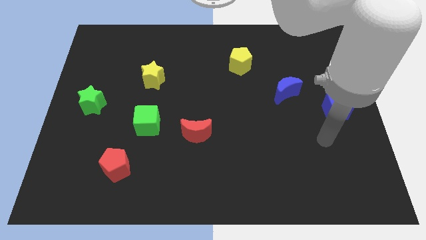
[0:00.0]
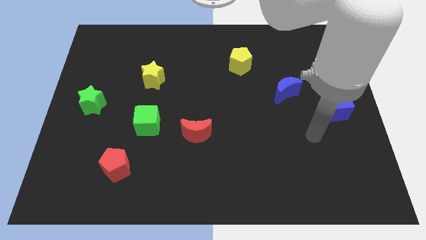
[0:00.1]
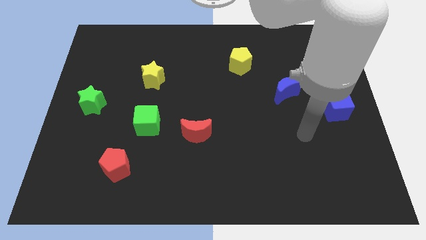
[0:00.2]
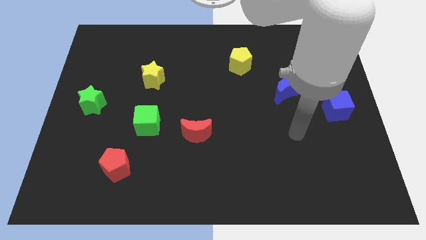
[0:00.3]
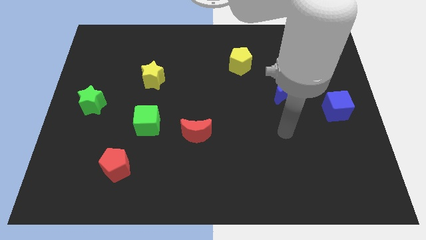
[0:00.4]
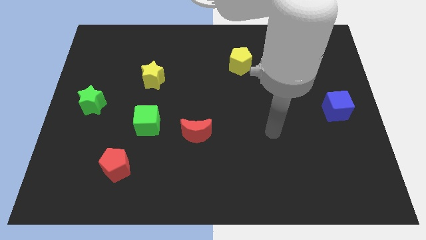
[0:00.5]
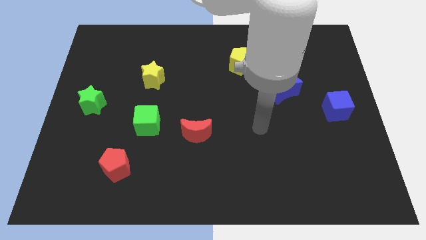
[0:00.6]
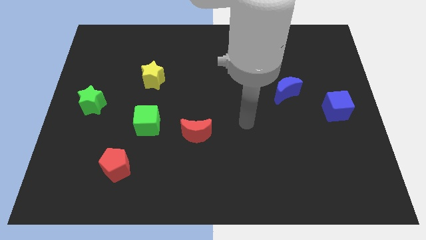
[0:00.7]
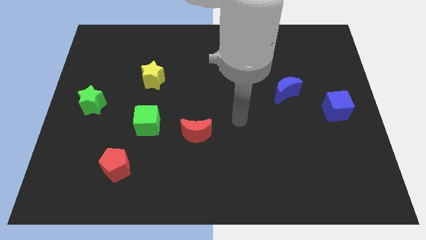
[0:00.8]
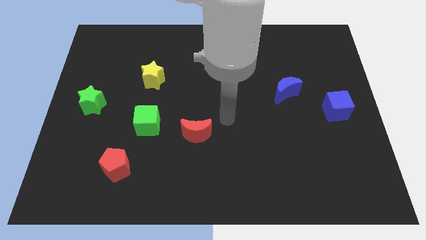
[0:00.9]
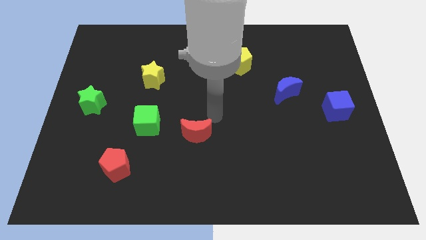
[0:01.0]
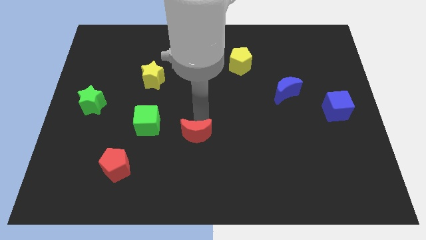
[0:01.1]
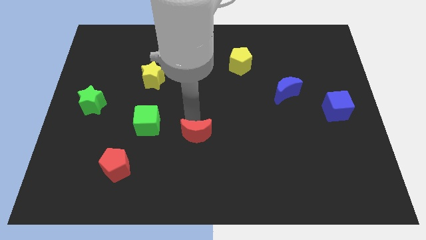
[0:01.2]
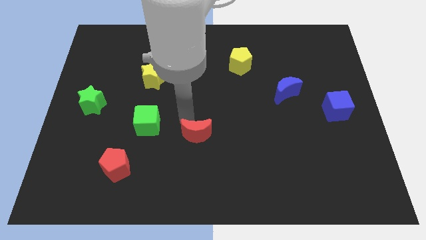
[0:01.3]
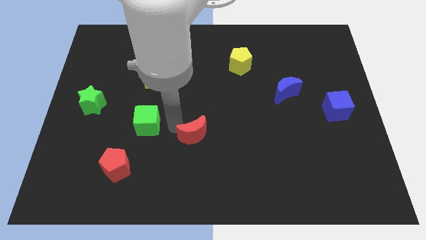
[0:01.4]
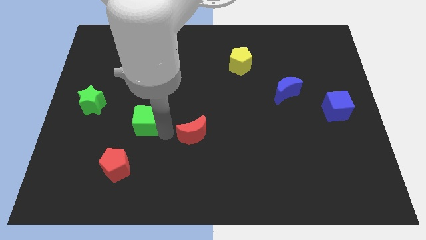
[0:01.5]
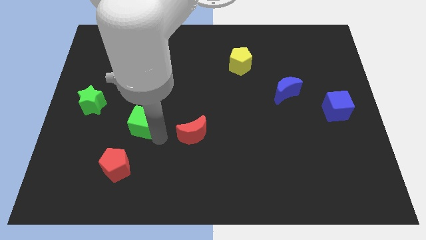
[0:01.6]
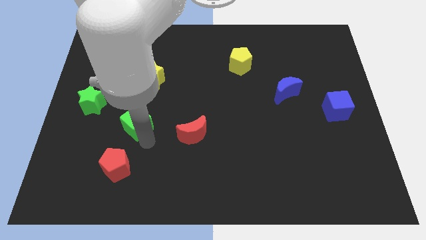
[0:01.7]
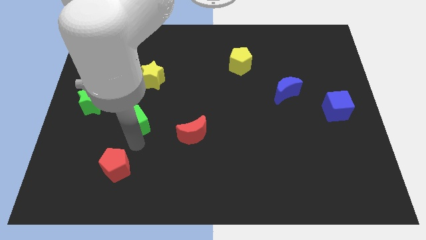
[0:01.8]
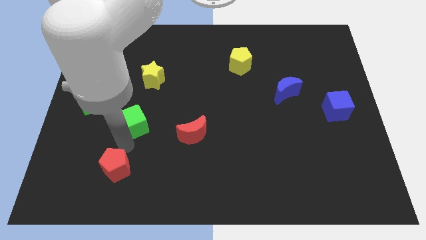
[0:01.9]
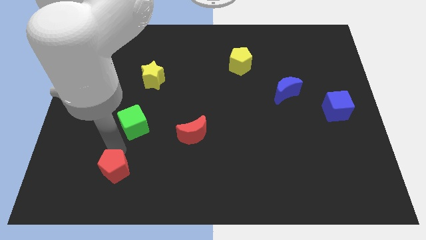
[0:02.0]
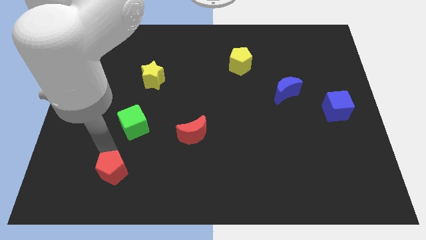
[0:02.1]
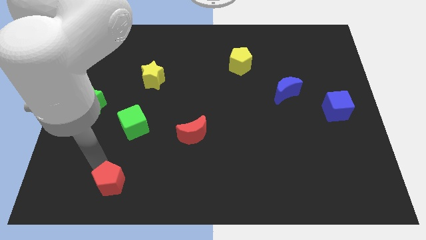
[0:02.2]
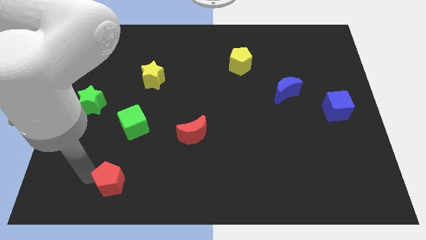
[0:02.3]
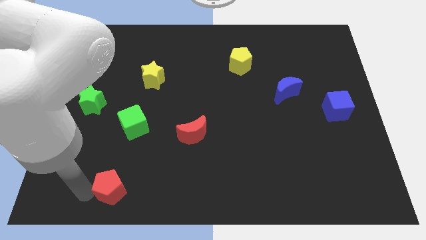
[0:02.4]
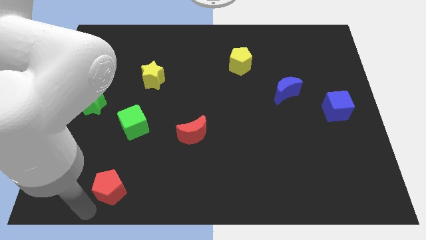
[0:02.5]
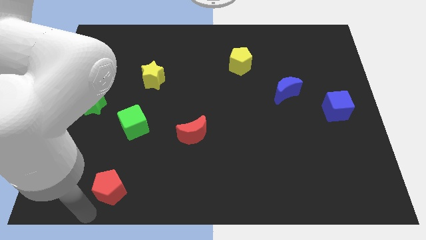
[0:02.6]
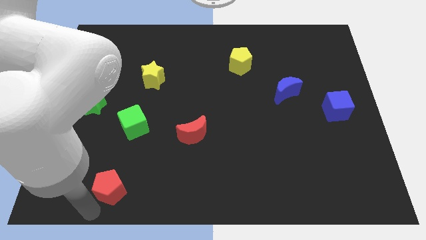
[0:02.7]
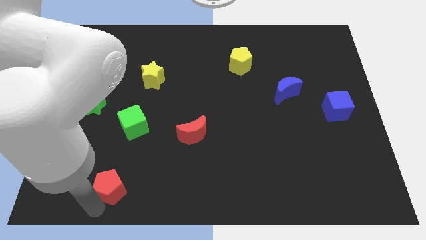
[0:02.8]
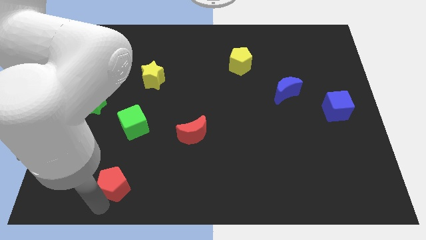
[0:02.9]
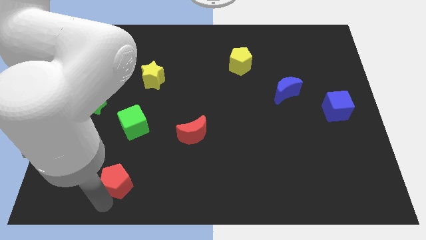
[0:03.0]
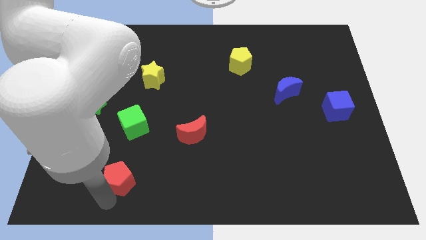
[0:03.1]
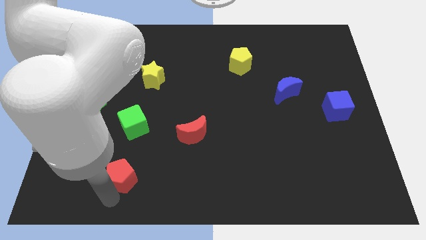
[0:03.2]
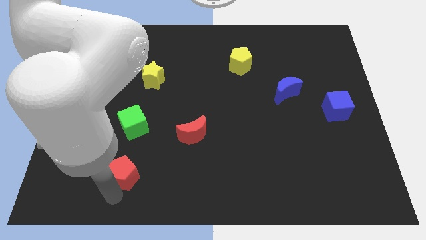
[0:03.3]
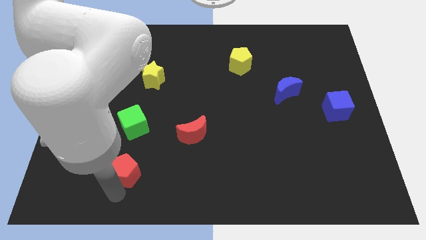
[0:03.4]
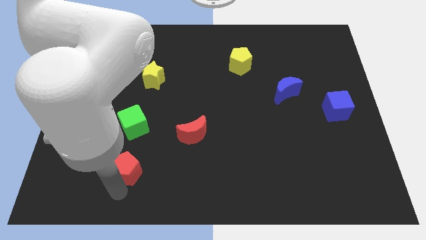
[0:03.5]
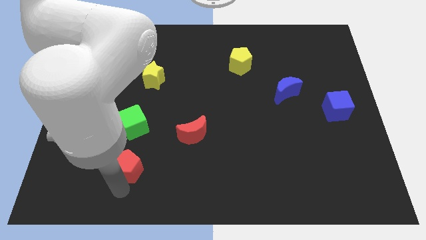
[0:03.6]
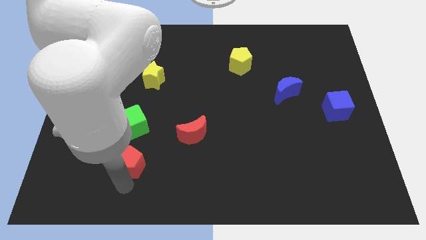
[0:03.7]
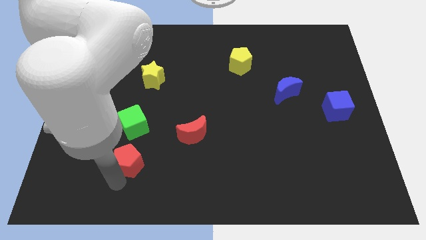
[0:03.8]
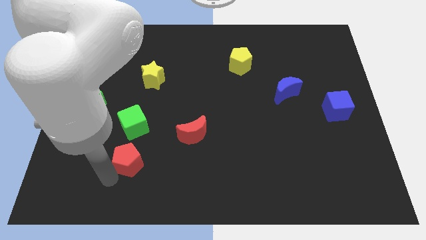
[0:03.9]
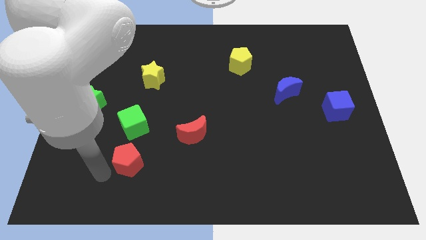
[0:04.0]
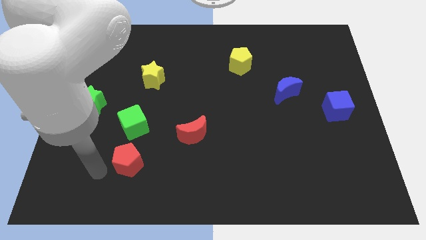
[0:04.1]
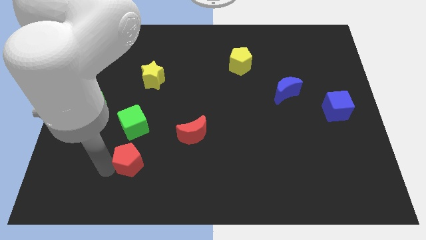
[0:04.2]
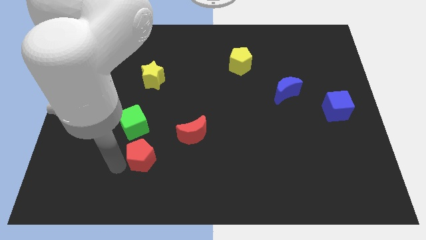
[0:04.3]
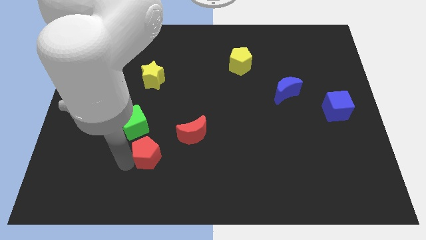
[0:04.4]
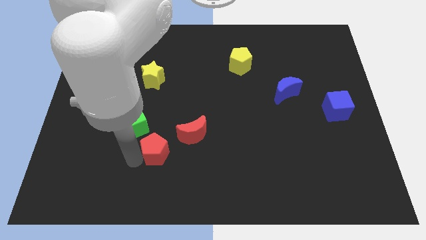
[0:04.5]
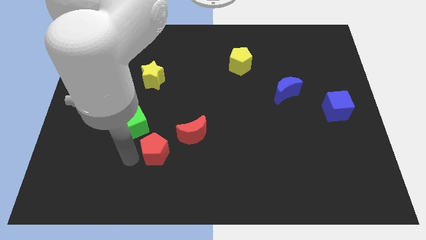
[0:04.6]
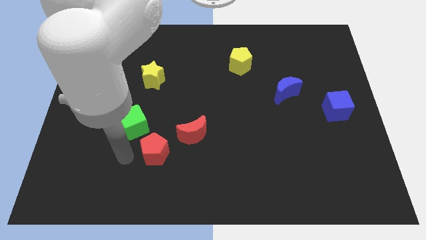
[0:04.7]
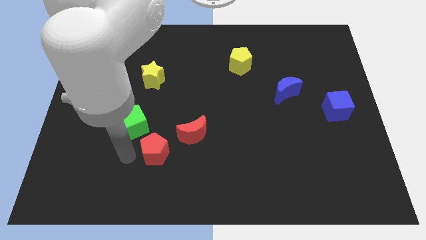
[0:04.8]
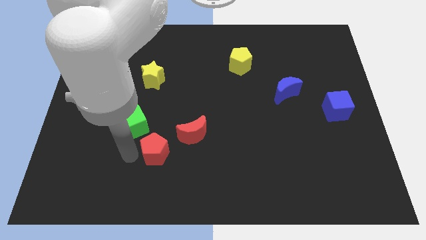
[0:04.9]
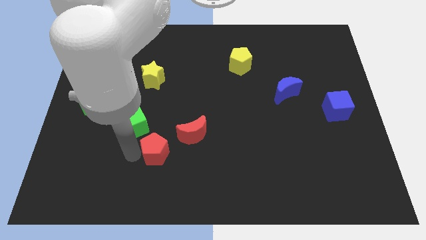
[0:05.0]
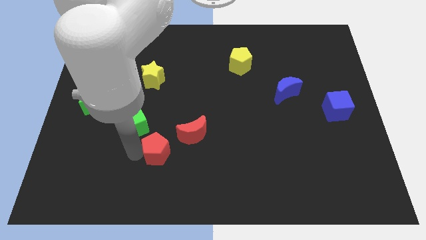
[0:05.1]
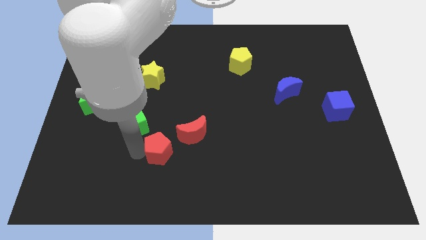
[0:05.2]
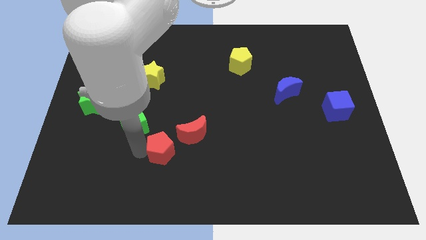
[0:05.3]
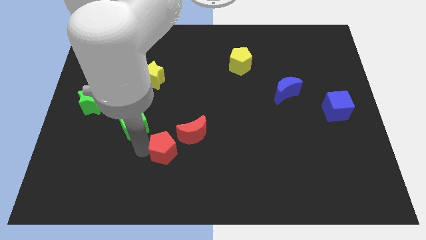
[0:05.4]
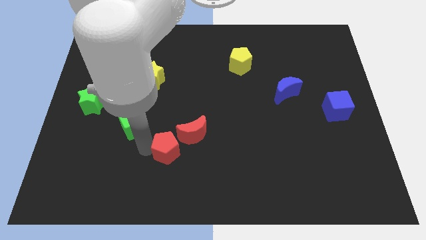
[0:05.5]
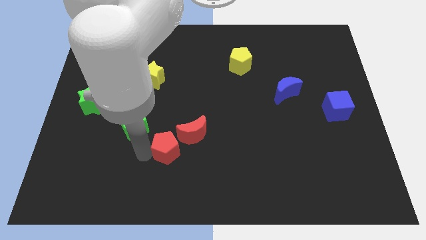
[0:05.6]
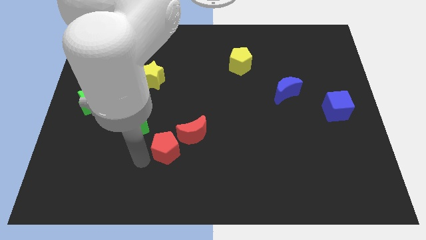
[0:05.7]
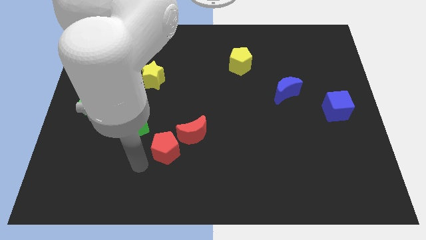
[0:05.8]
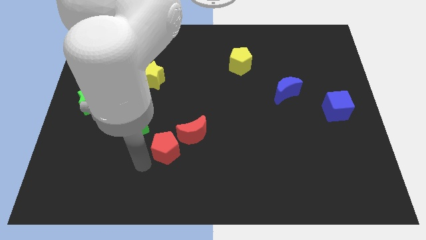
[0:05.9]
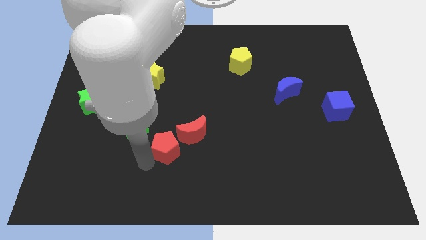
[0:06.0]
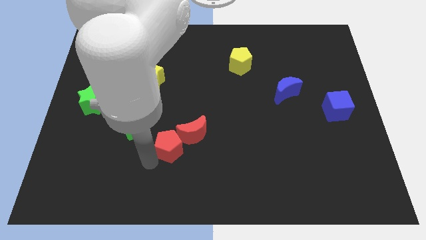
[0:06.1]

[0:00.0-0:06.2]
push the red pentagon next to the red moon

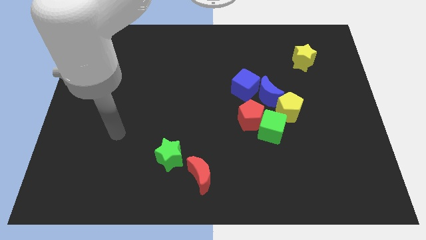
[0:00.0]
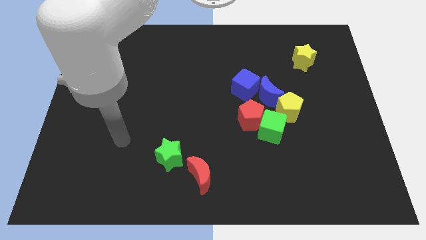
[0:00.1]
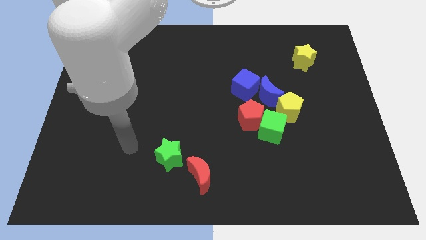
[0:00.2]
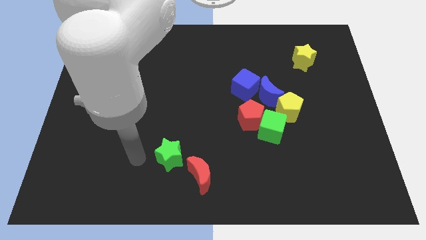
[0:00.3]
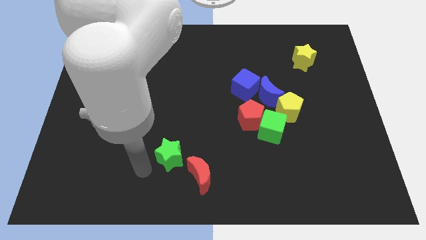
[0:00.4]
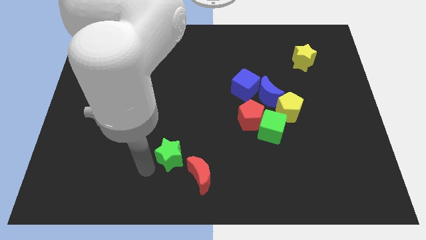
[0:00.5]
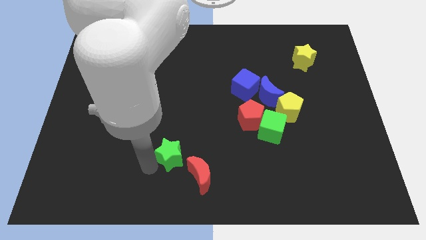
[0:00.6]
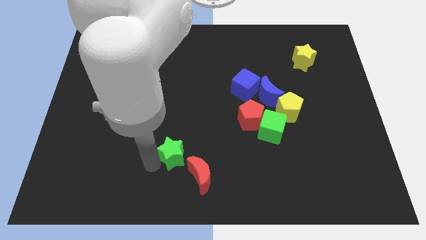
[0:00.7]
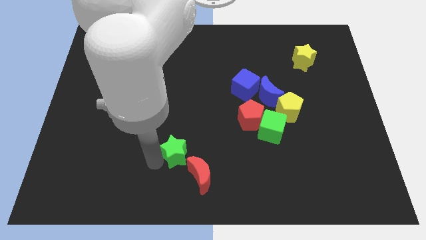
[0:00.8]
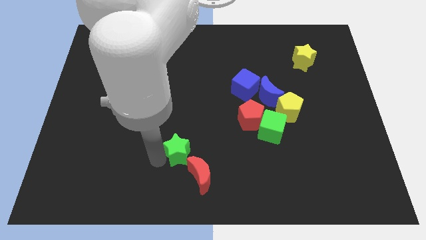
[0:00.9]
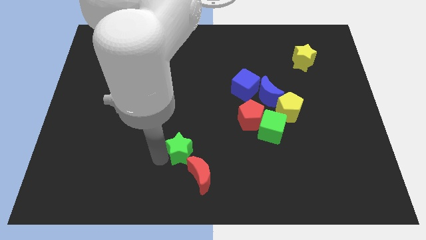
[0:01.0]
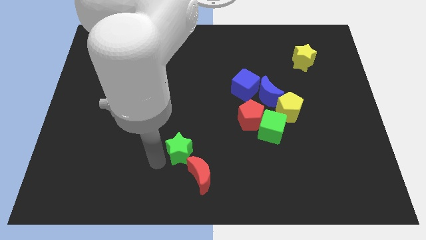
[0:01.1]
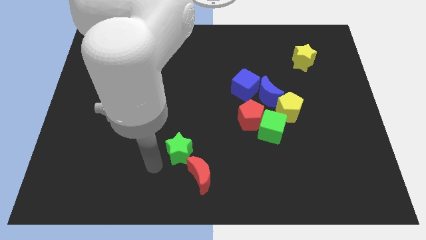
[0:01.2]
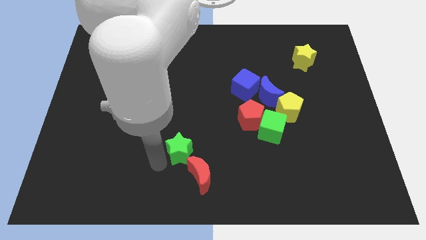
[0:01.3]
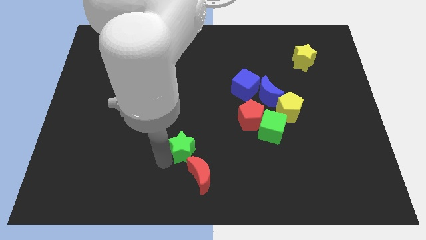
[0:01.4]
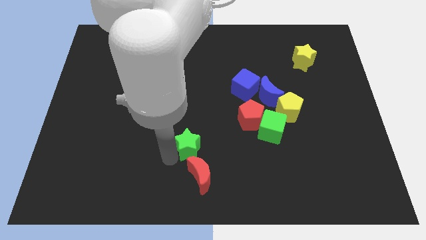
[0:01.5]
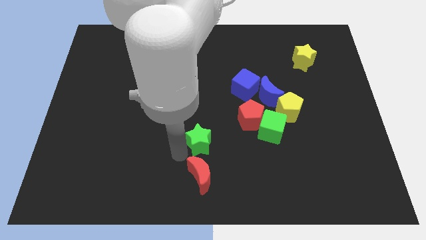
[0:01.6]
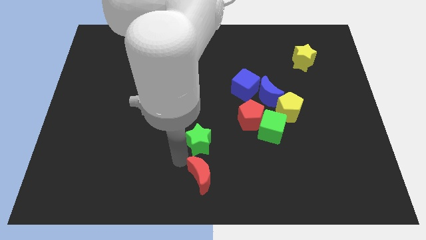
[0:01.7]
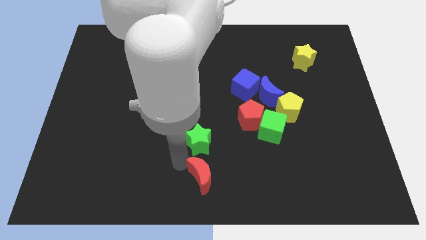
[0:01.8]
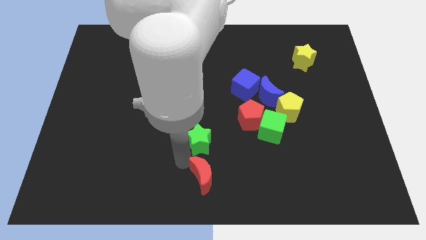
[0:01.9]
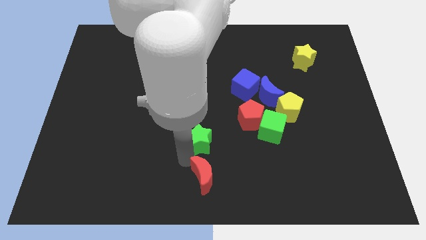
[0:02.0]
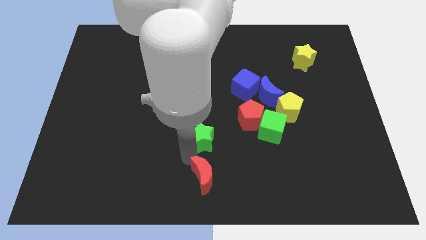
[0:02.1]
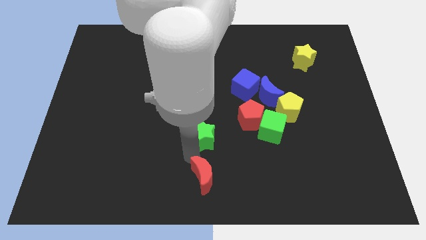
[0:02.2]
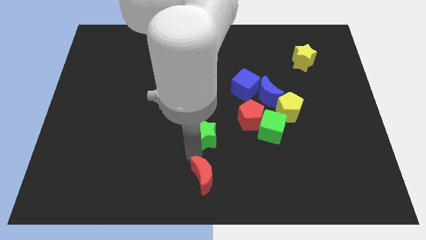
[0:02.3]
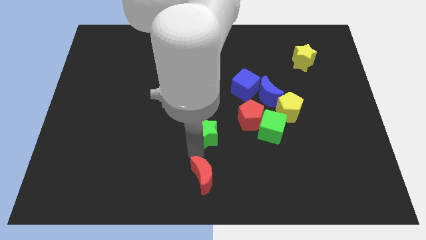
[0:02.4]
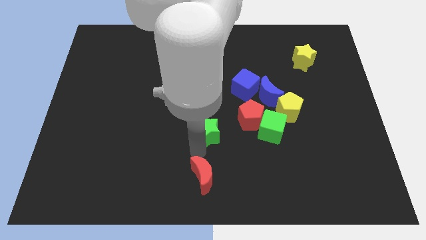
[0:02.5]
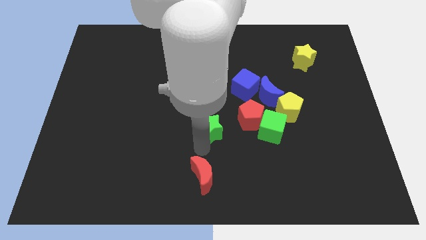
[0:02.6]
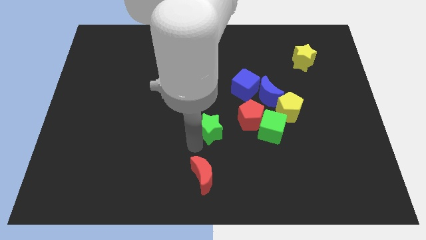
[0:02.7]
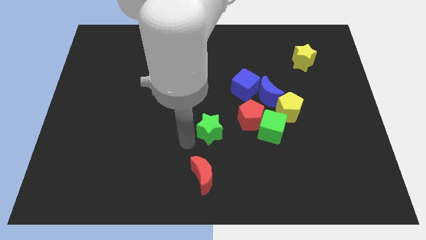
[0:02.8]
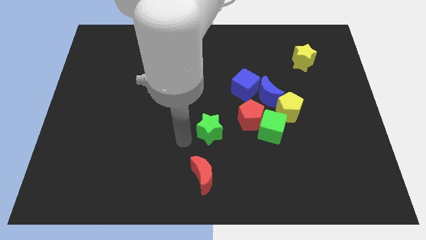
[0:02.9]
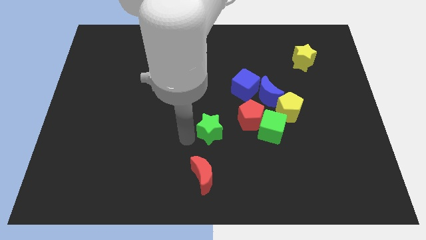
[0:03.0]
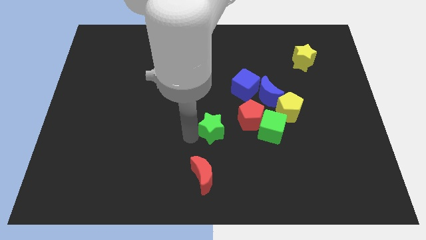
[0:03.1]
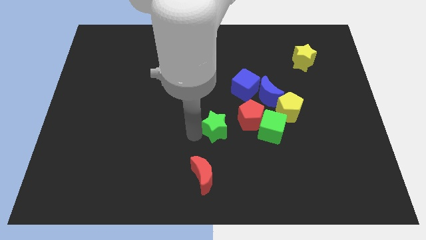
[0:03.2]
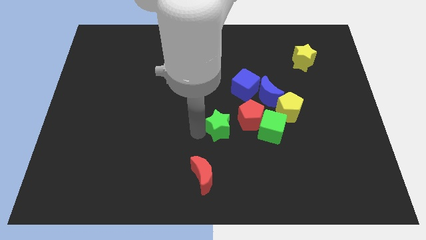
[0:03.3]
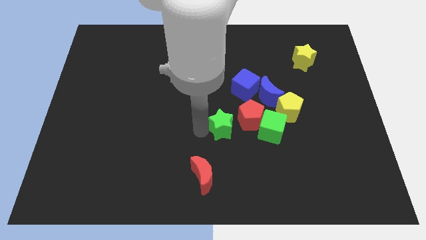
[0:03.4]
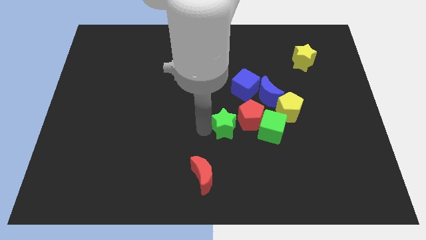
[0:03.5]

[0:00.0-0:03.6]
put the green star close to the red pentagon
